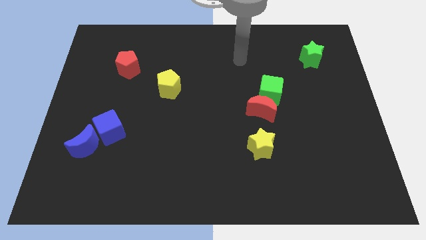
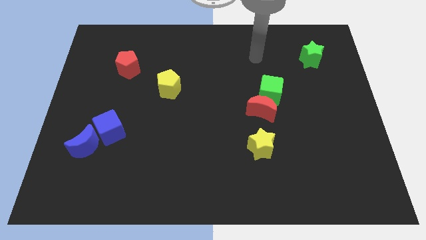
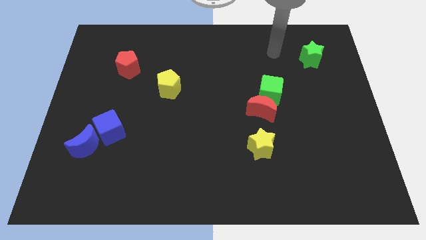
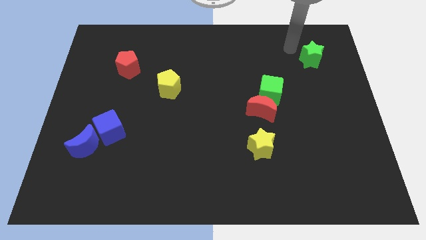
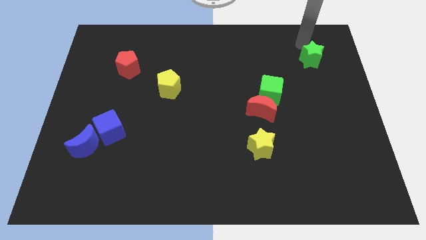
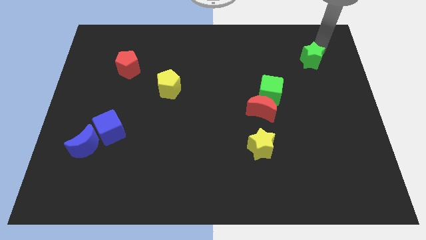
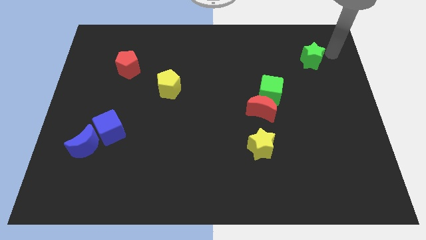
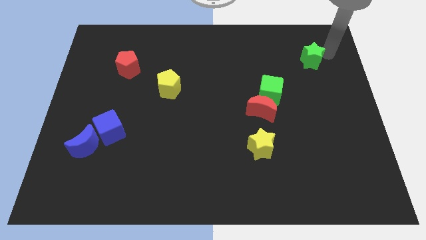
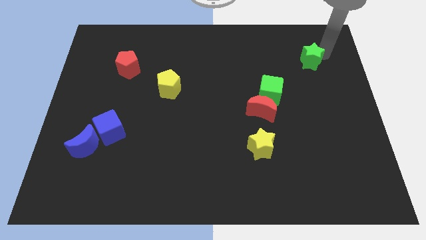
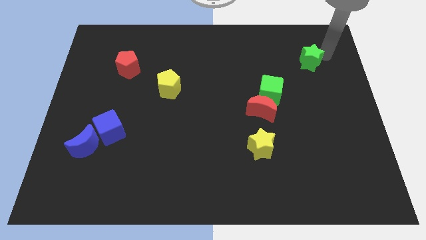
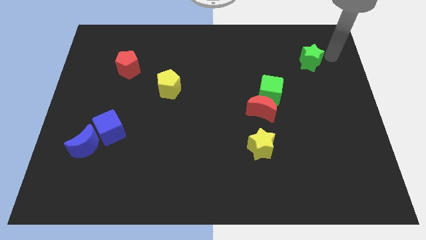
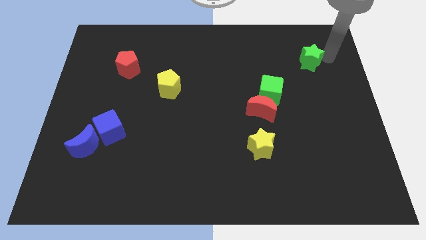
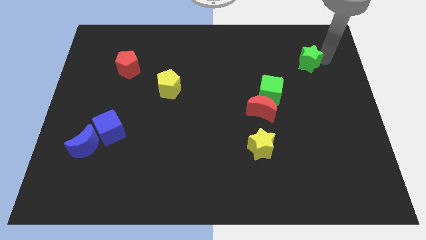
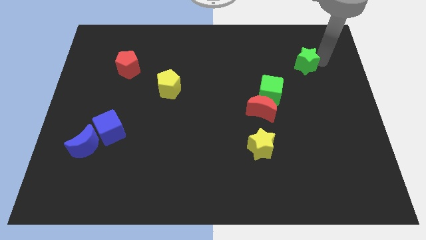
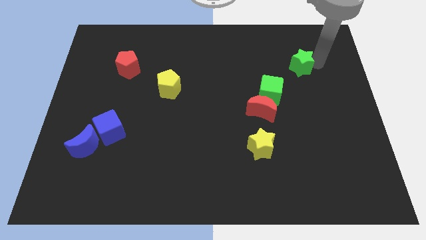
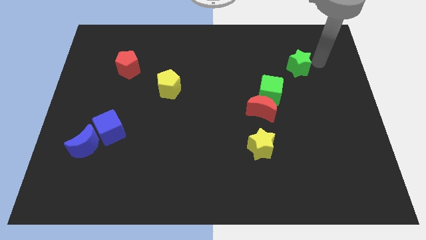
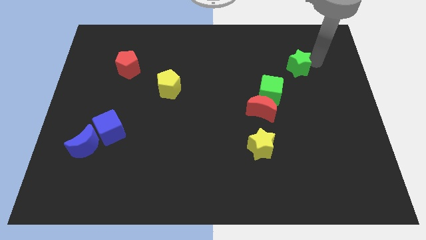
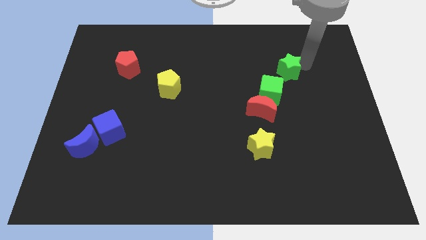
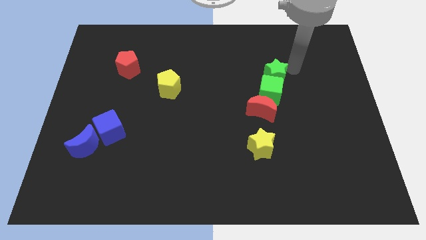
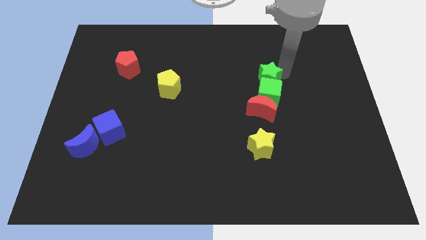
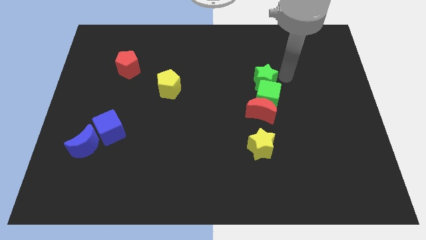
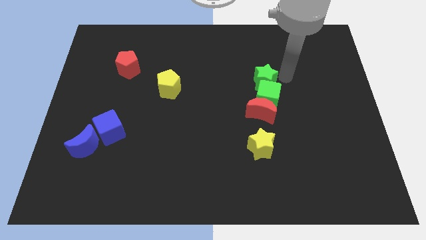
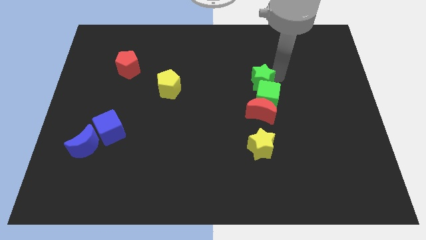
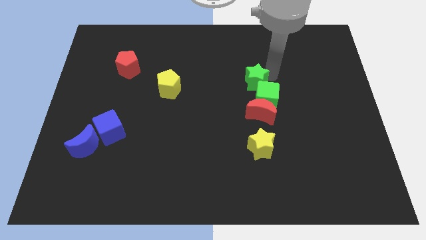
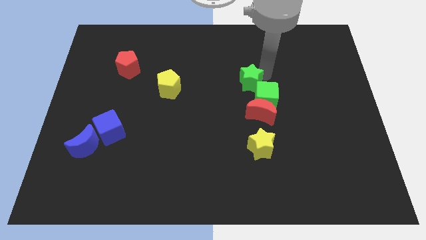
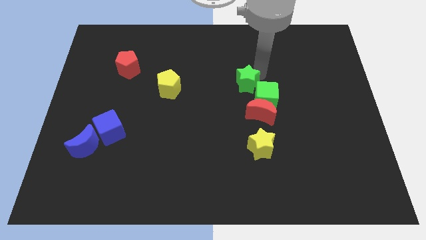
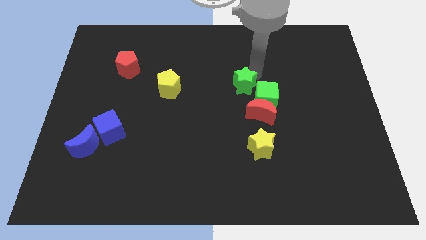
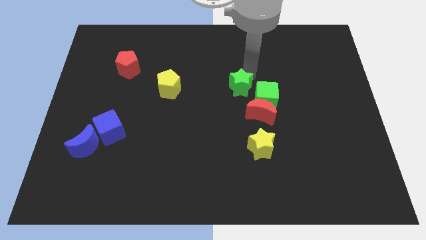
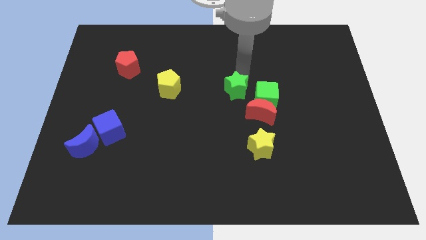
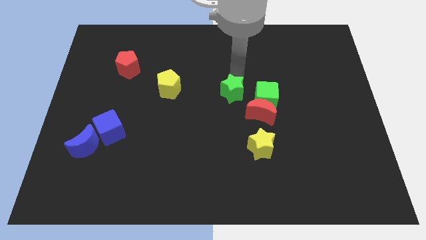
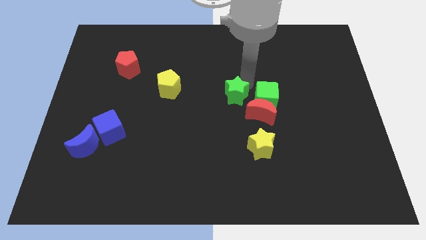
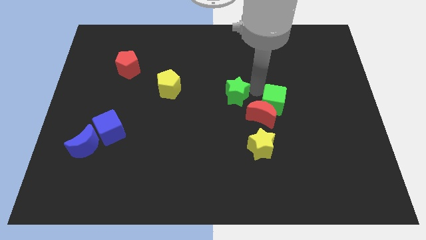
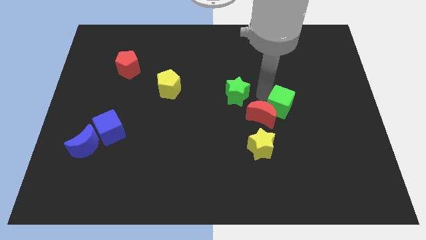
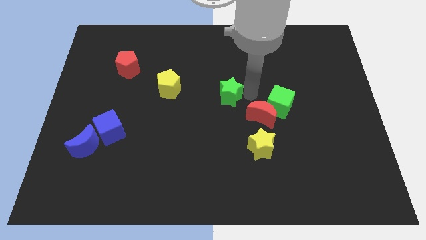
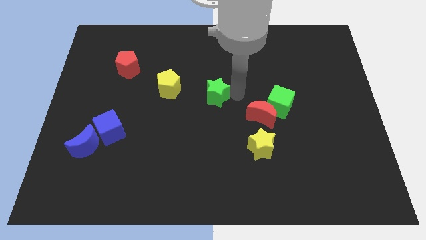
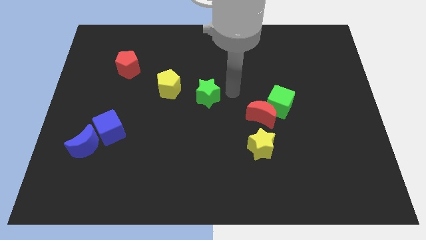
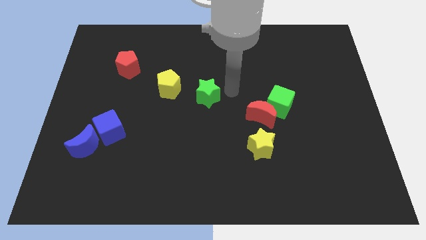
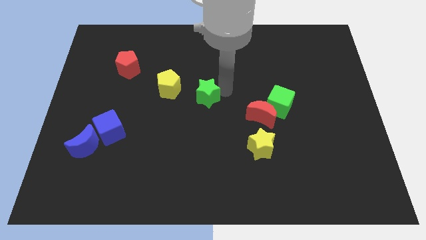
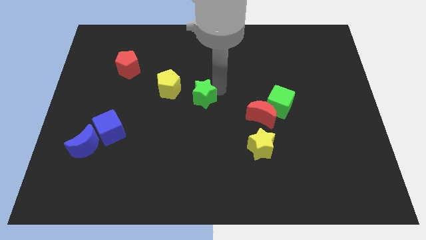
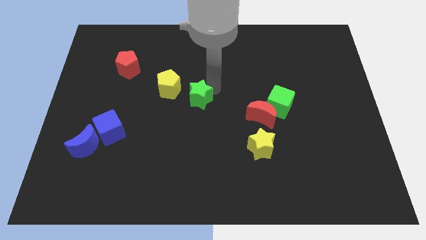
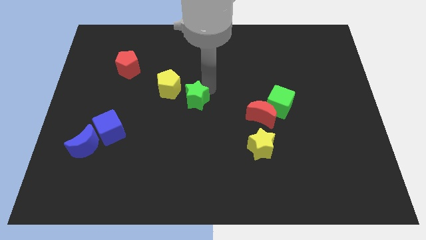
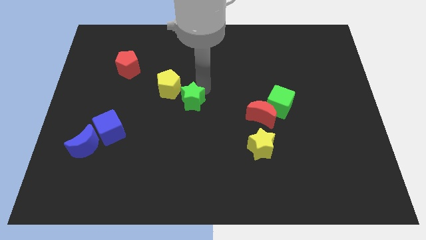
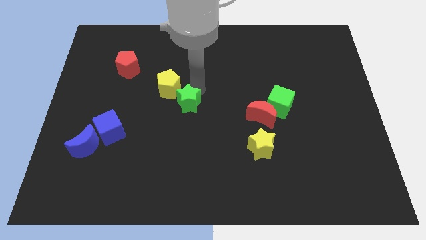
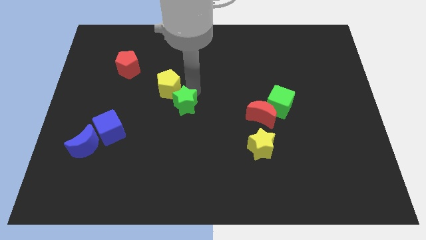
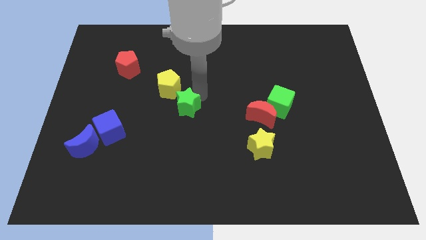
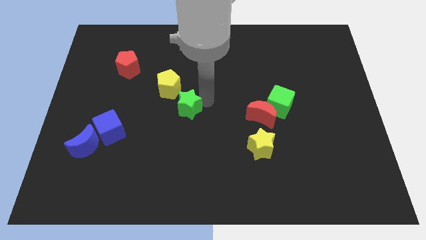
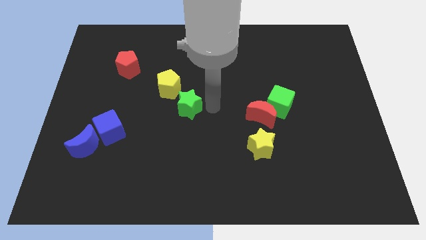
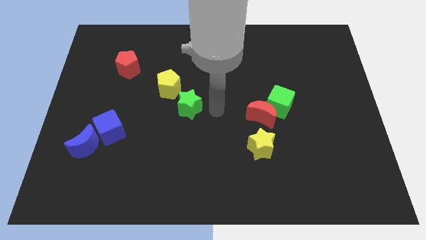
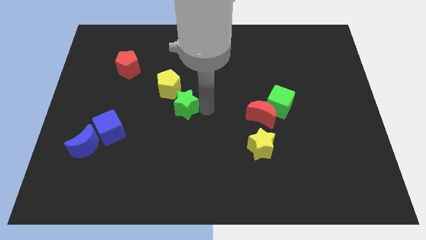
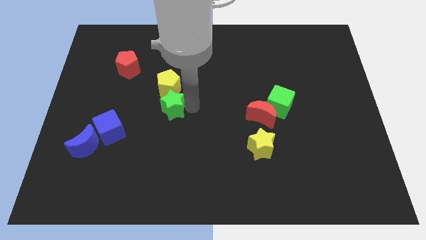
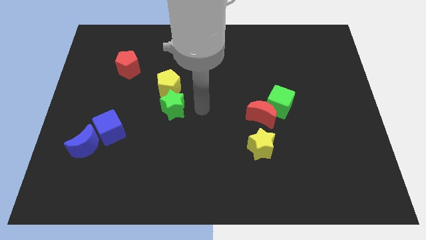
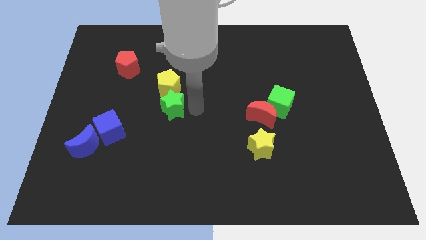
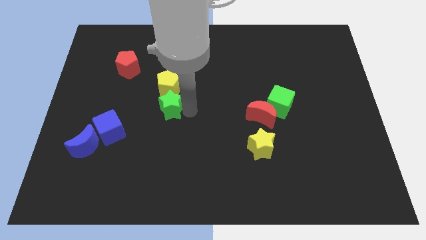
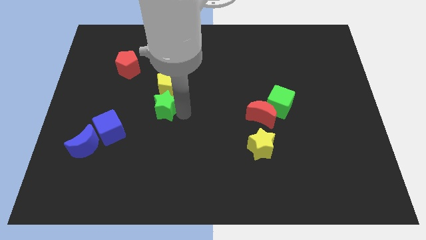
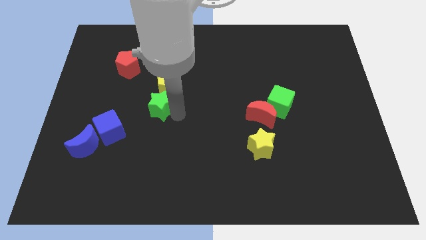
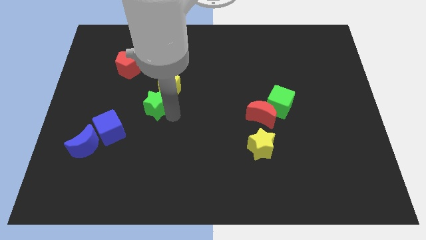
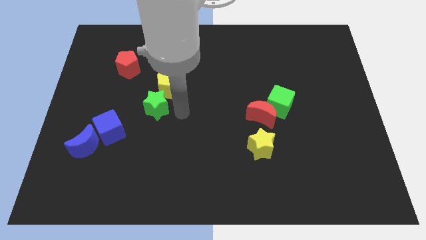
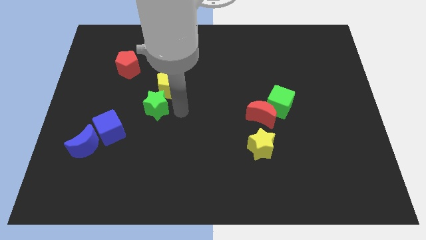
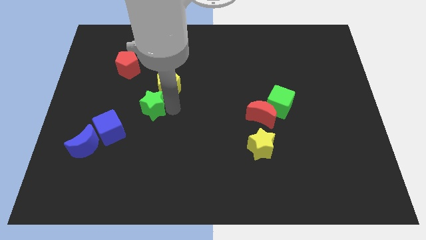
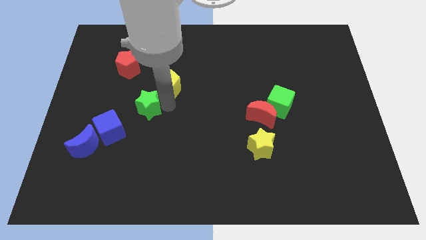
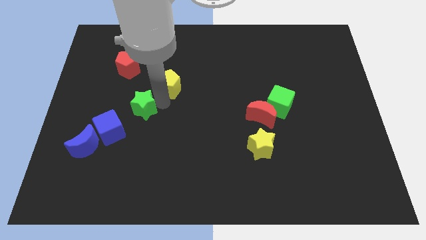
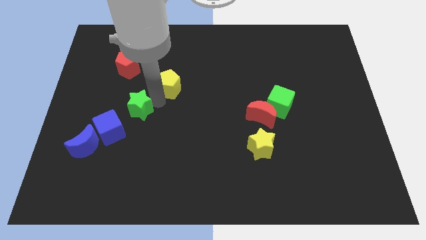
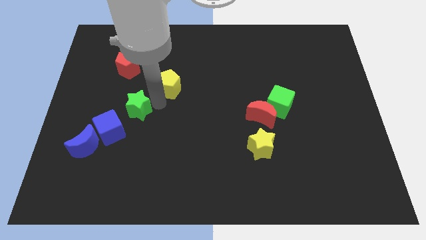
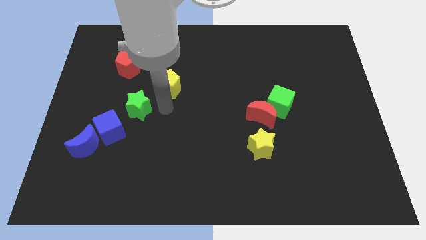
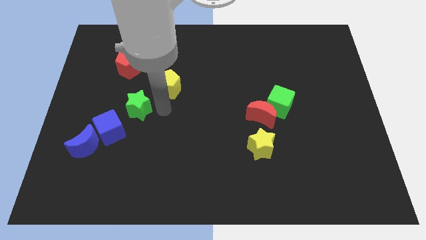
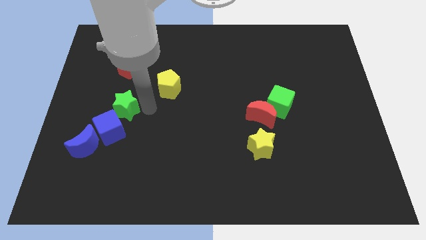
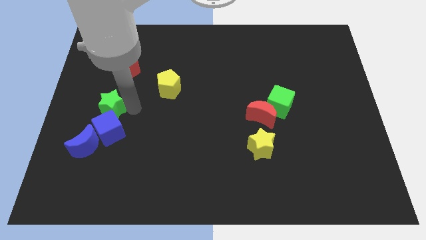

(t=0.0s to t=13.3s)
move the green star to the top side of the blue moon

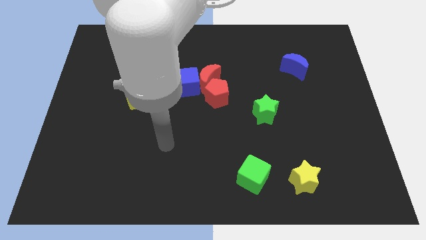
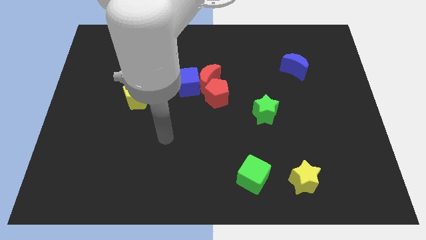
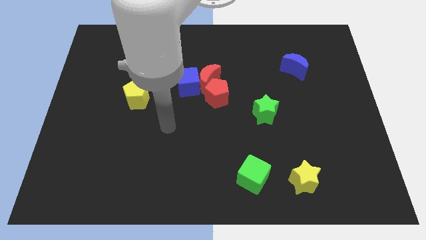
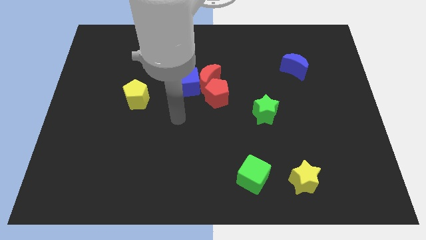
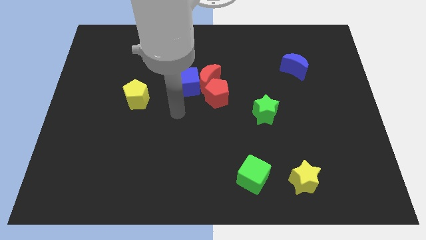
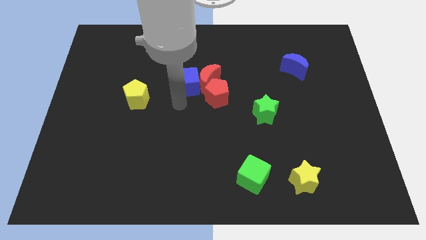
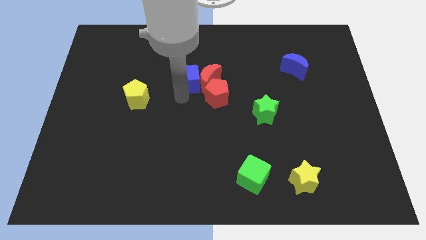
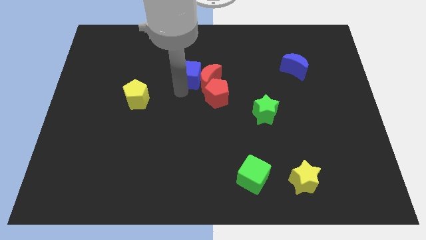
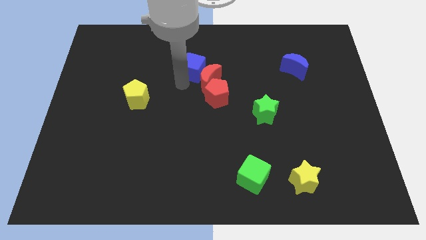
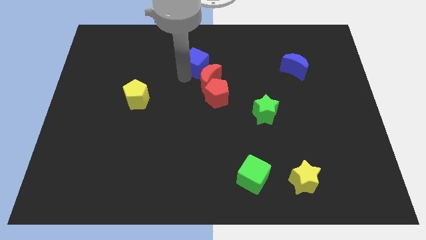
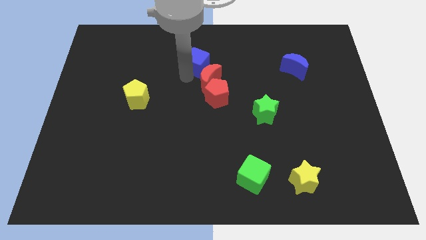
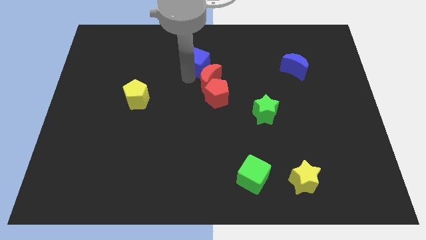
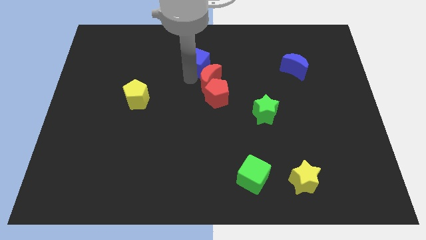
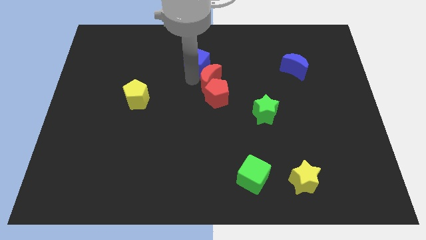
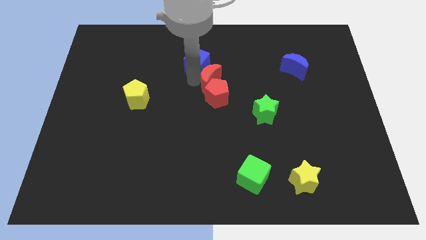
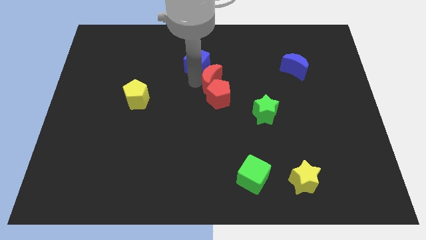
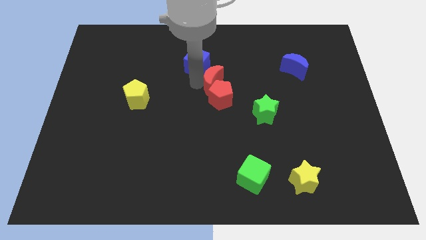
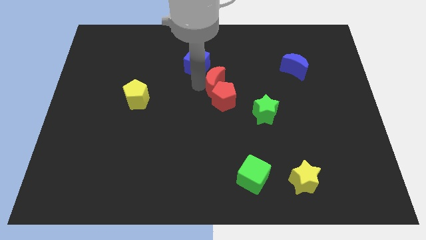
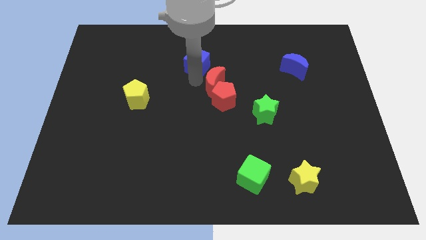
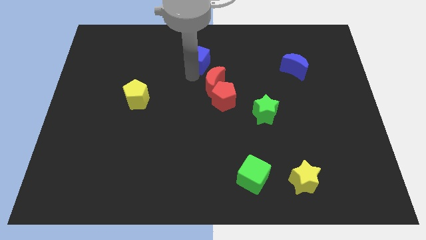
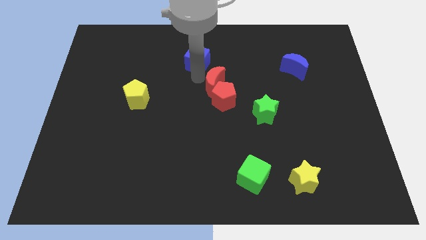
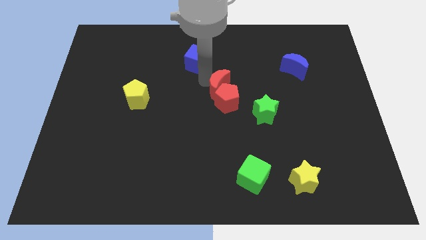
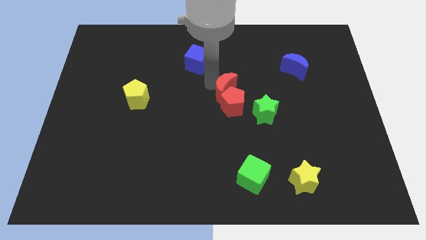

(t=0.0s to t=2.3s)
move the red moon to the top left of the green star
